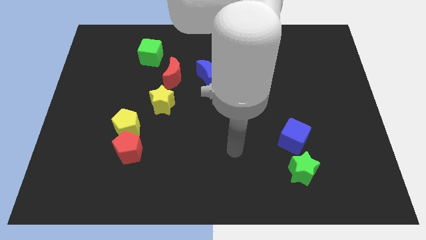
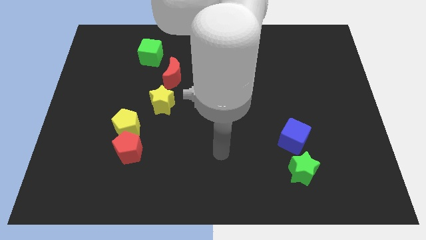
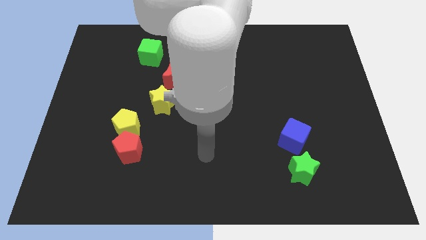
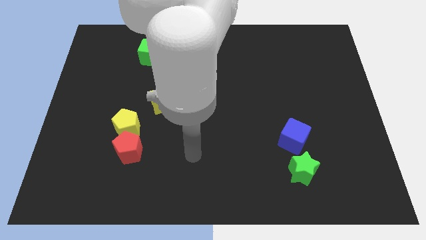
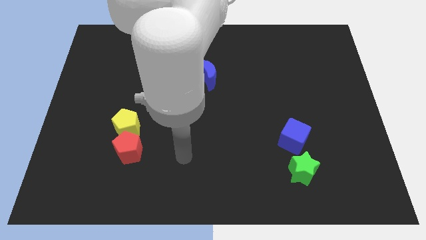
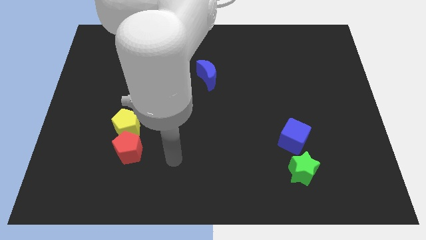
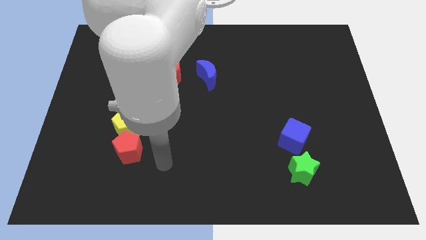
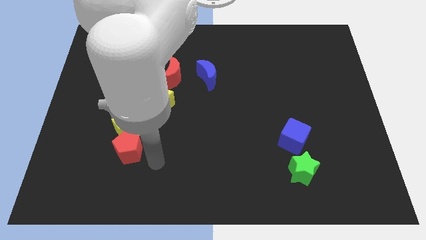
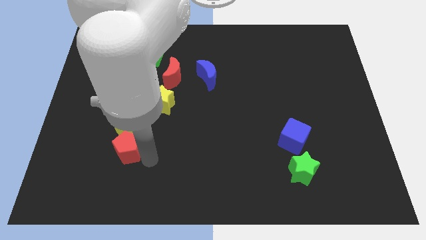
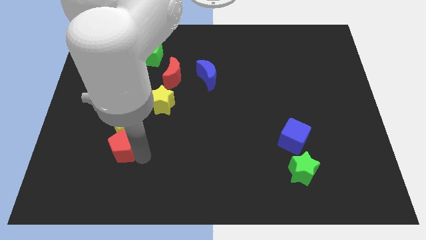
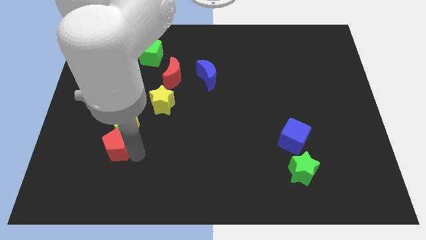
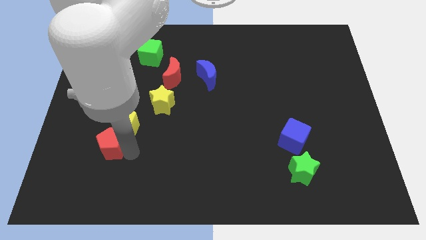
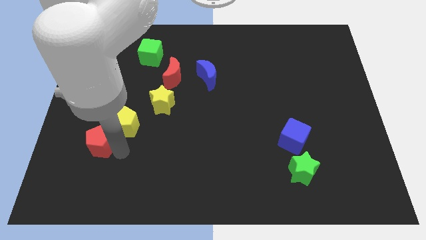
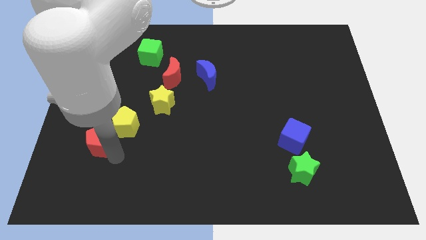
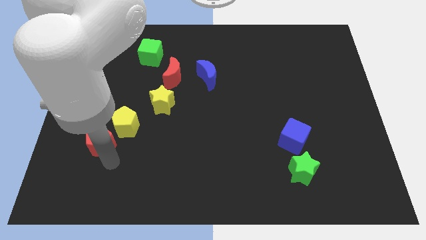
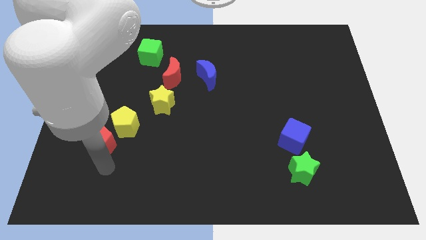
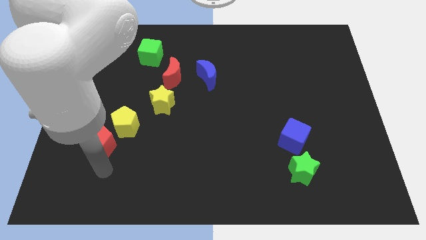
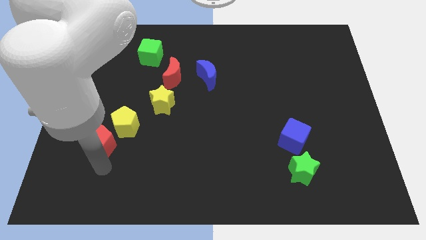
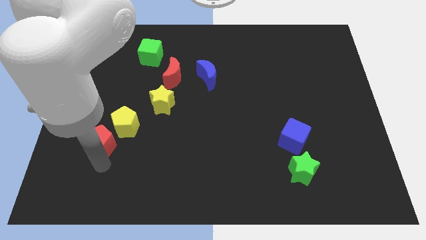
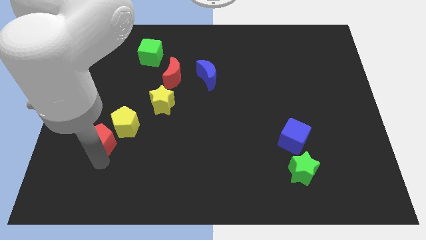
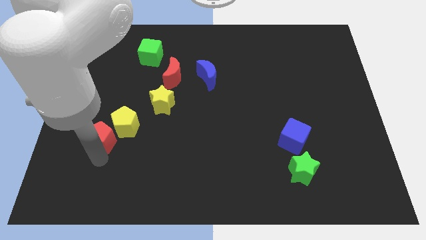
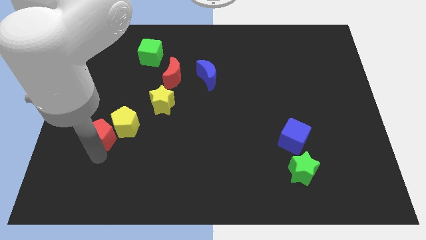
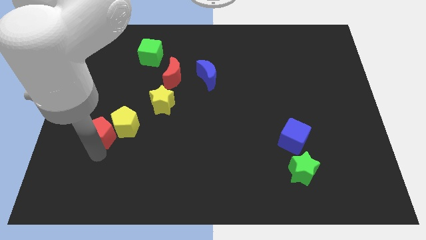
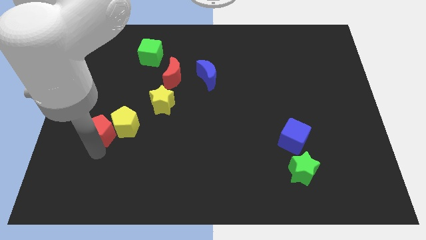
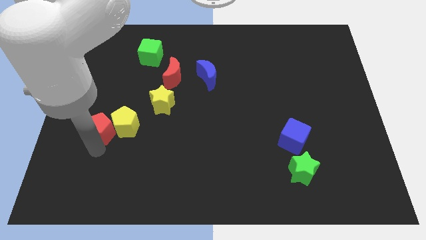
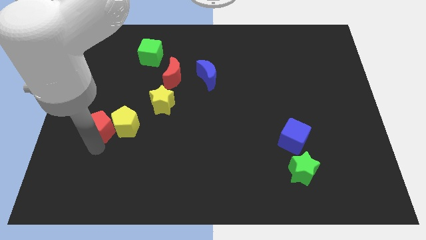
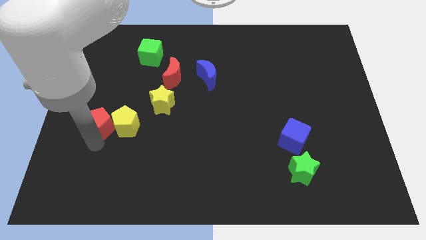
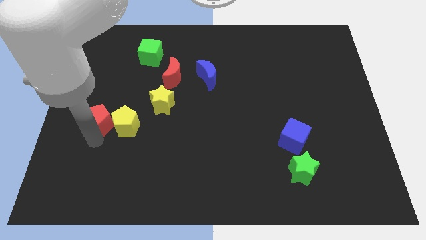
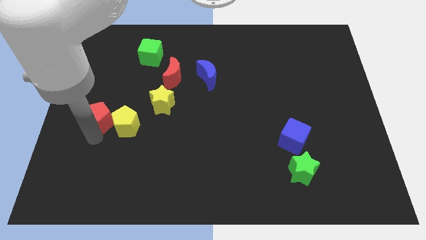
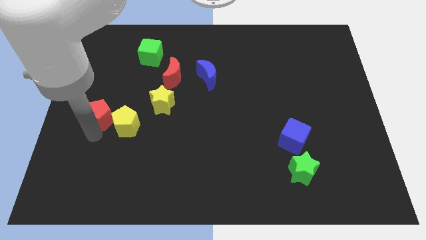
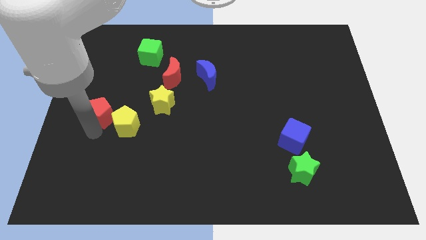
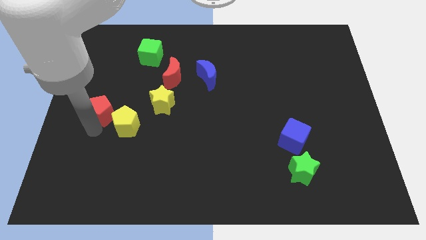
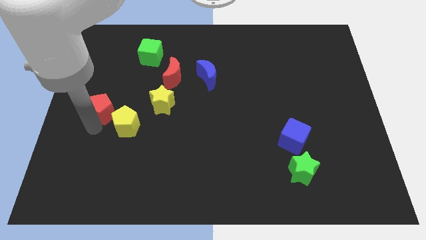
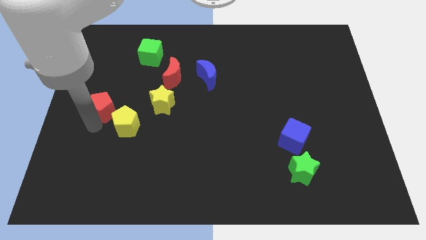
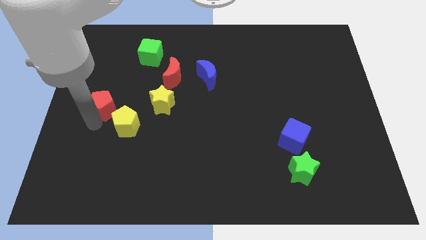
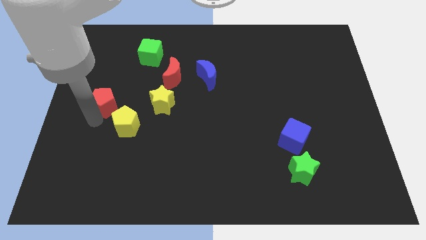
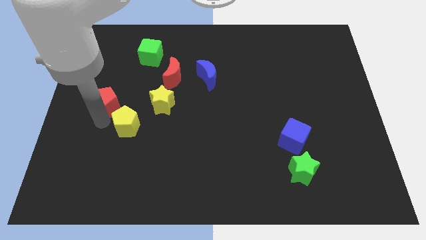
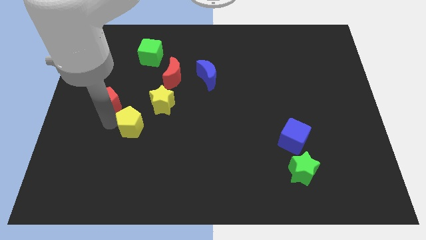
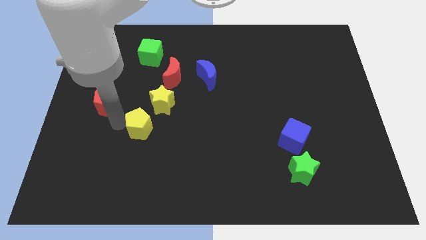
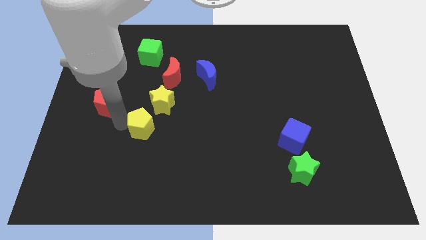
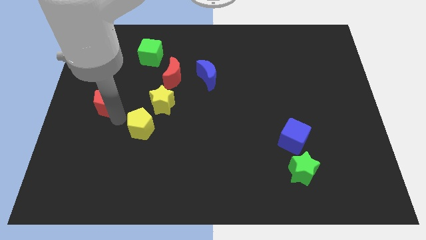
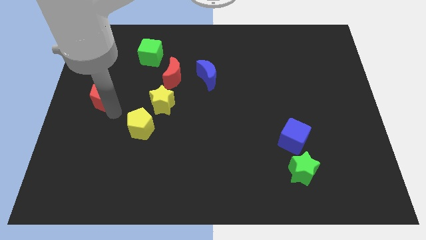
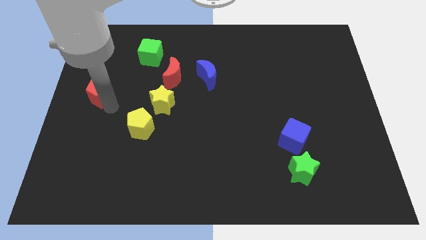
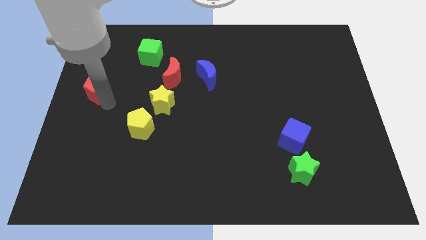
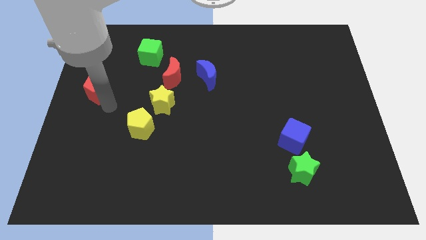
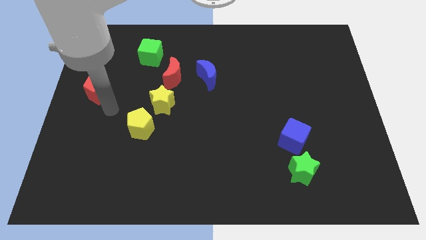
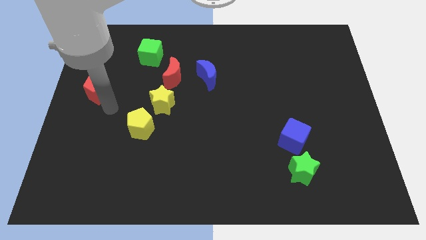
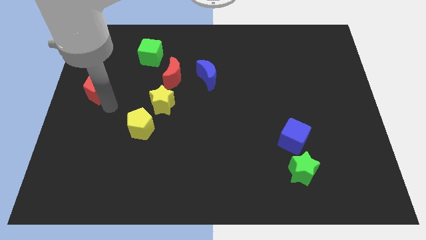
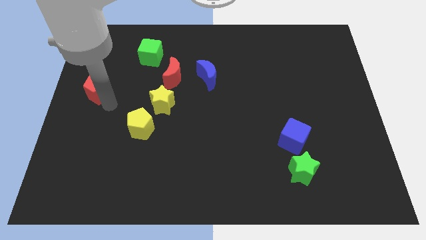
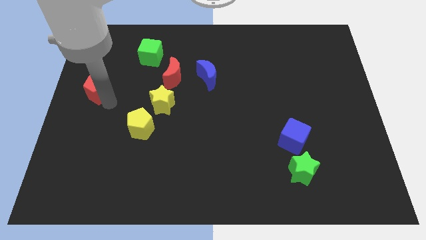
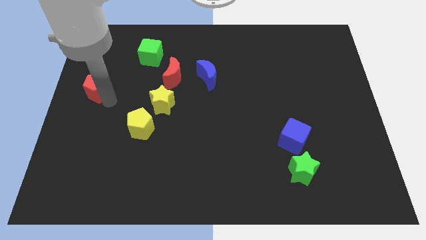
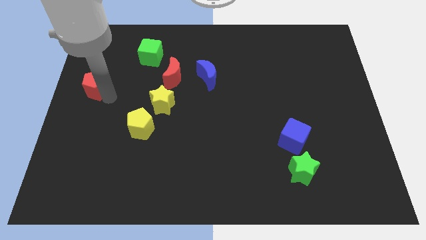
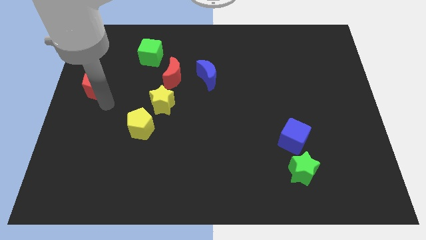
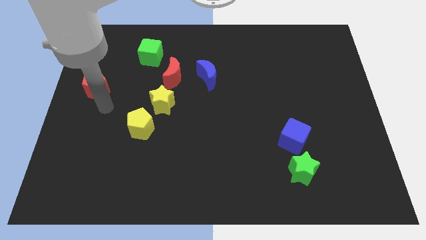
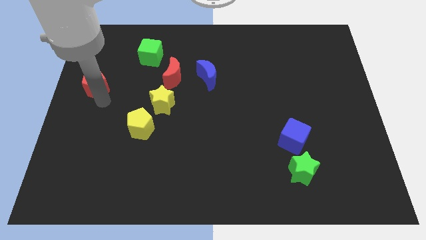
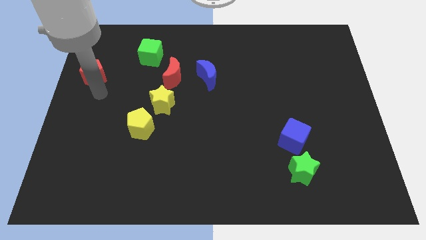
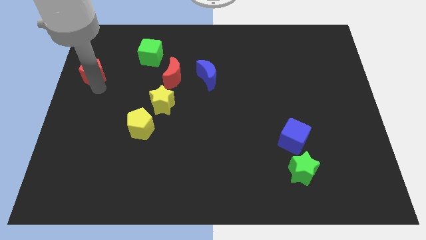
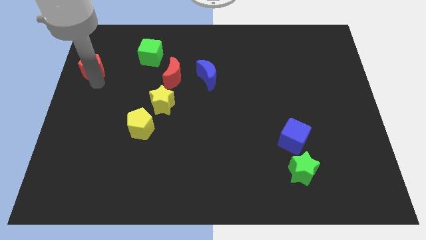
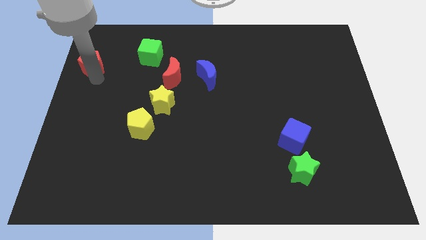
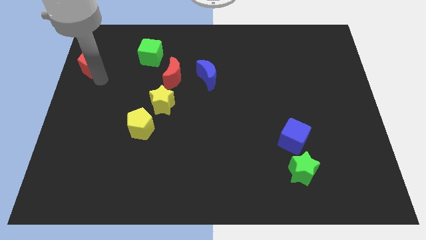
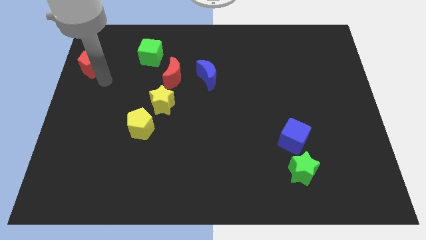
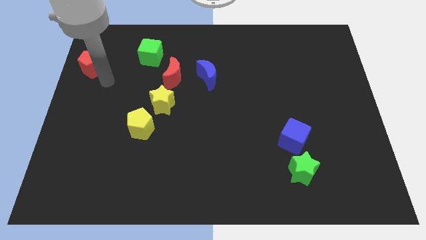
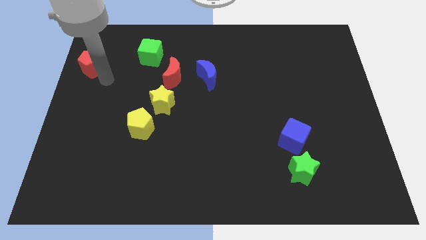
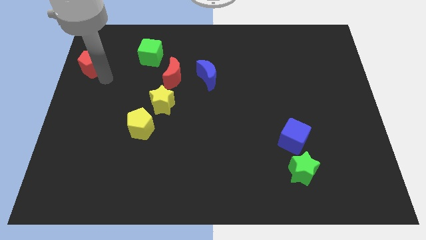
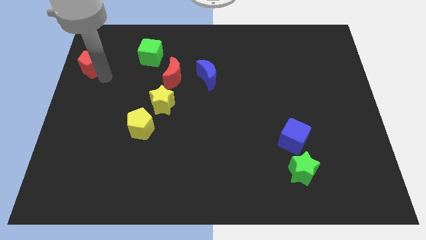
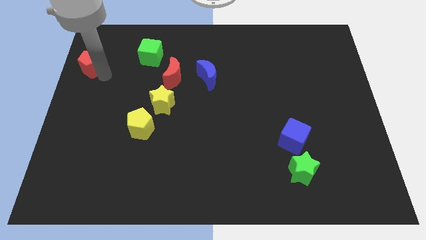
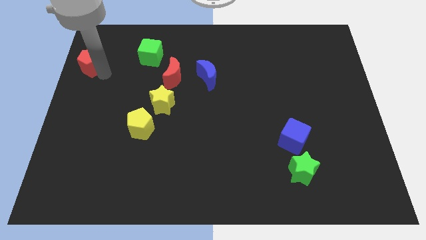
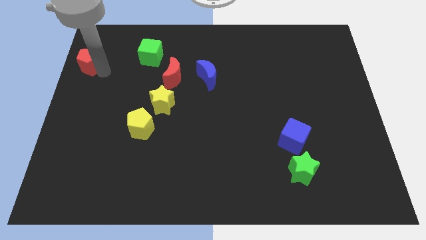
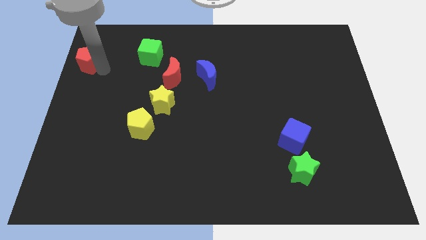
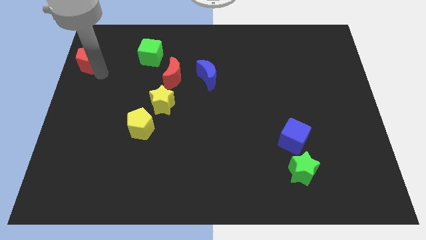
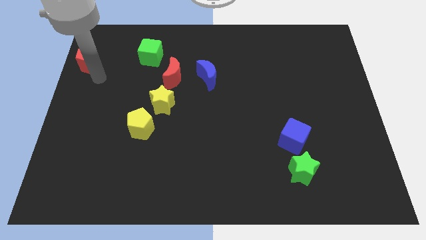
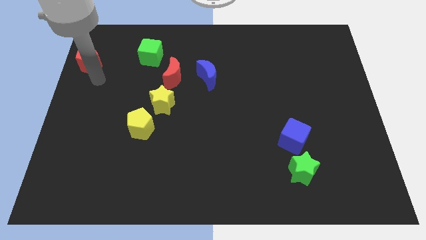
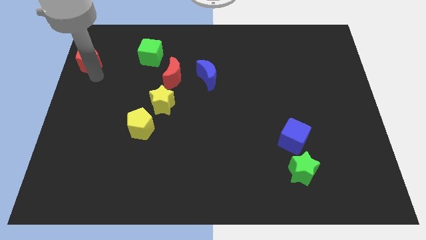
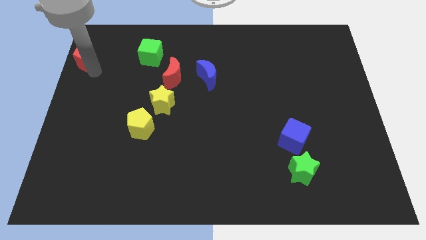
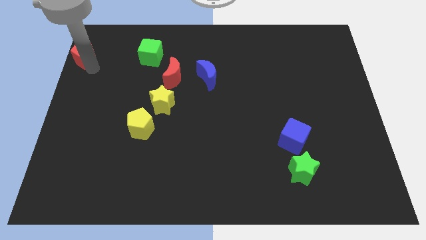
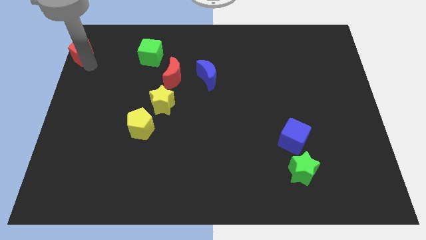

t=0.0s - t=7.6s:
push the red pentagon to the upper left corner

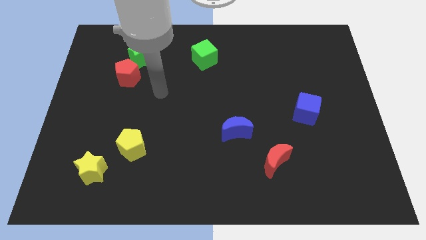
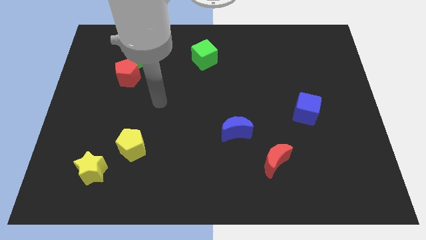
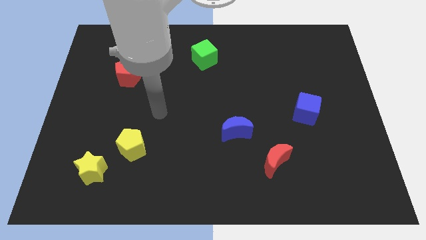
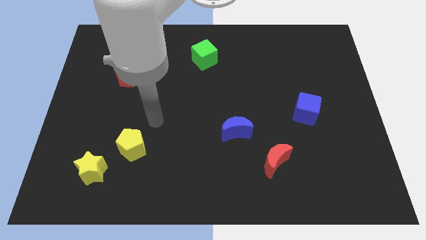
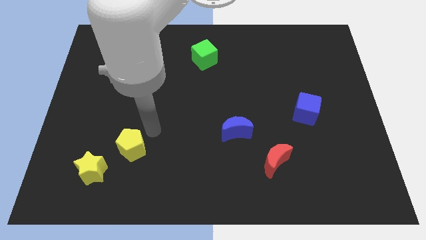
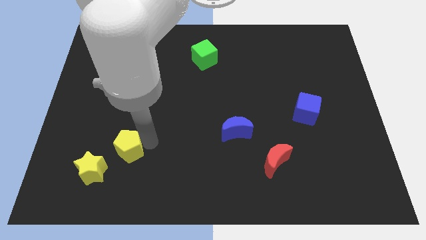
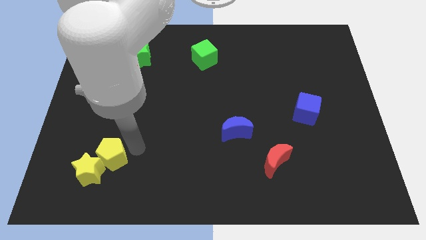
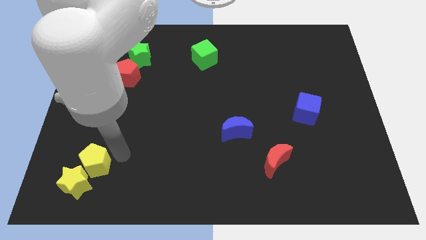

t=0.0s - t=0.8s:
move the yellow star to the bottom left
